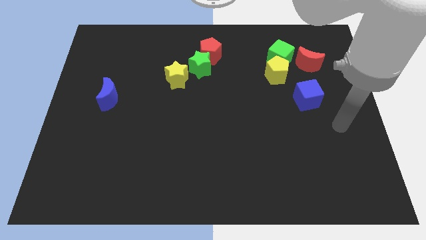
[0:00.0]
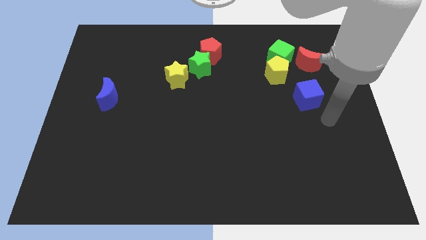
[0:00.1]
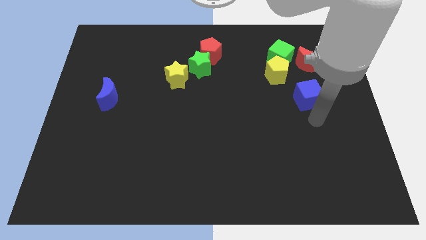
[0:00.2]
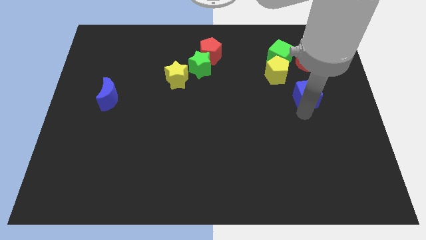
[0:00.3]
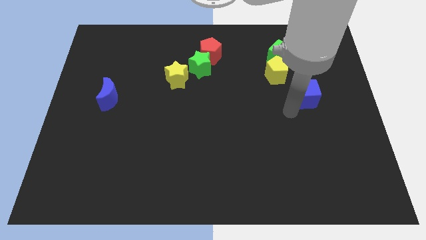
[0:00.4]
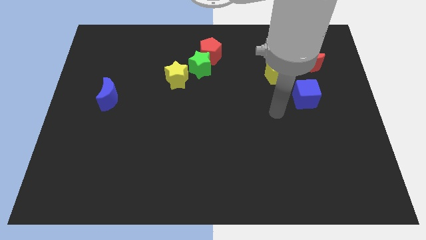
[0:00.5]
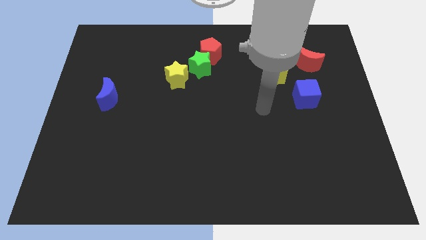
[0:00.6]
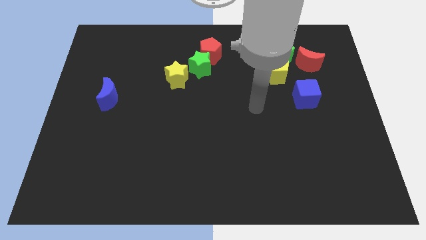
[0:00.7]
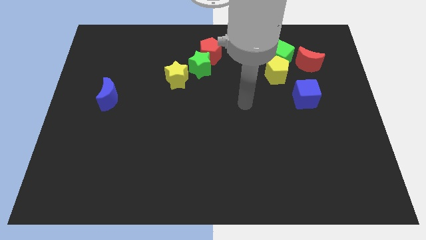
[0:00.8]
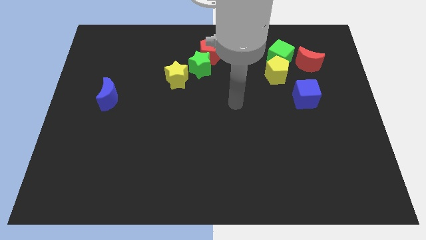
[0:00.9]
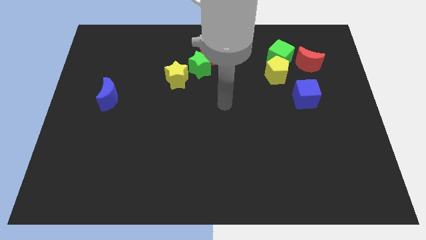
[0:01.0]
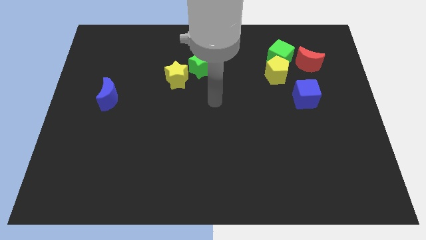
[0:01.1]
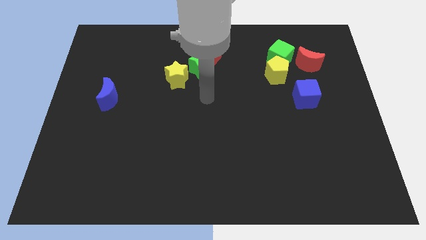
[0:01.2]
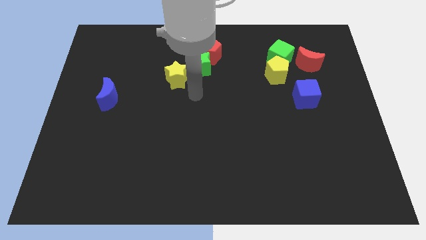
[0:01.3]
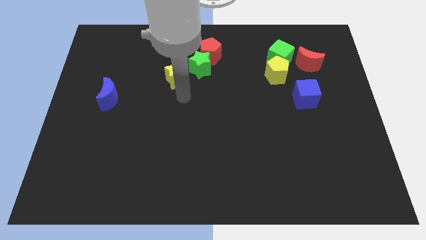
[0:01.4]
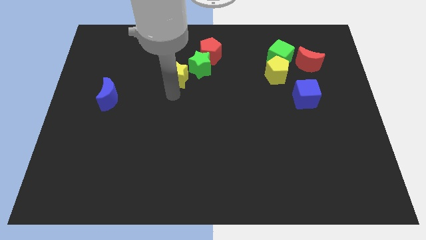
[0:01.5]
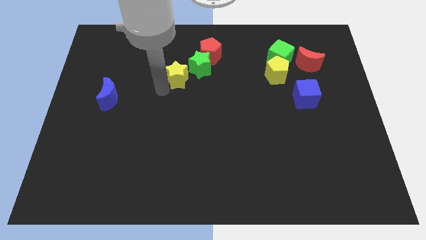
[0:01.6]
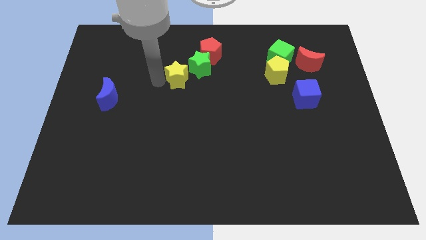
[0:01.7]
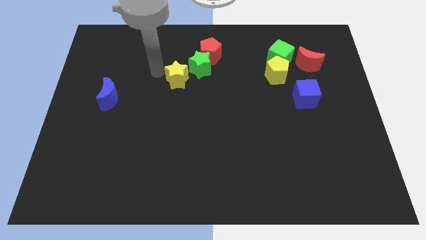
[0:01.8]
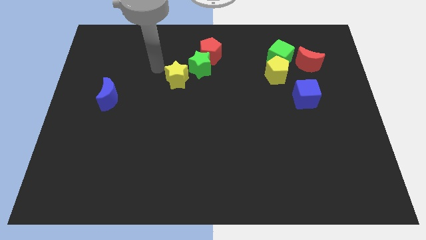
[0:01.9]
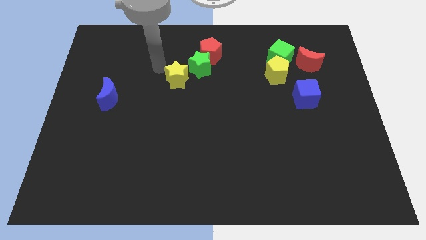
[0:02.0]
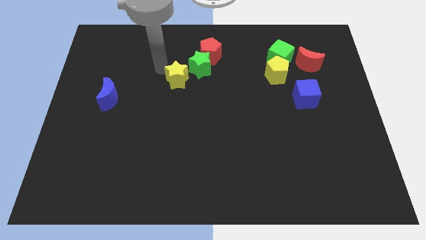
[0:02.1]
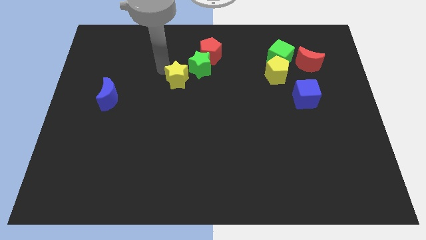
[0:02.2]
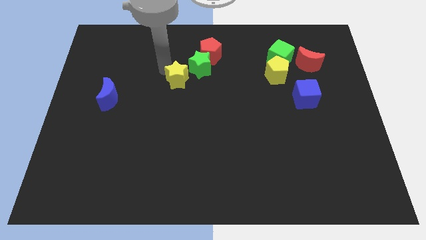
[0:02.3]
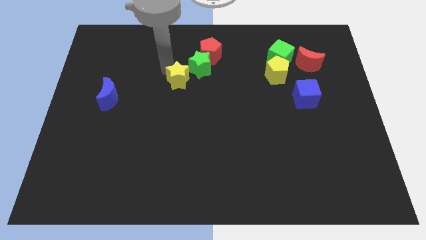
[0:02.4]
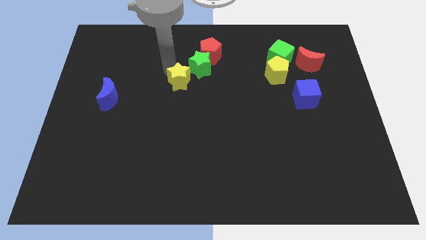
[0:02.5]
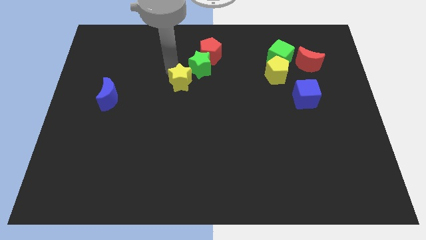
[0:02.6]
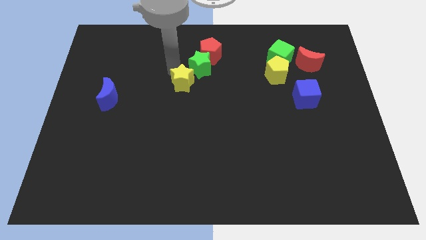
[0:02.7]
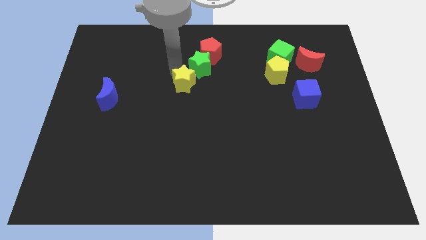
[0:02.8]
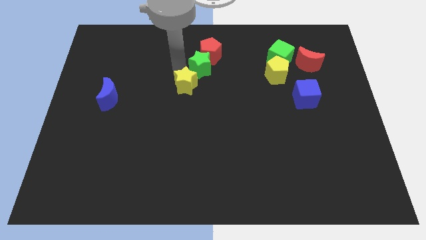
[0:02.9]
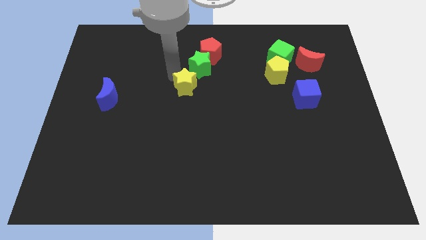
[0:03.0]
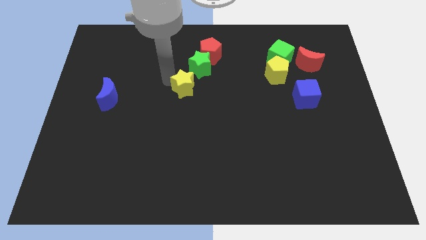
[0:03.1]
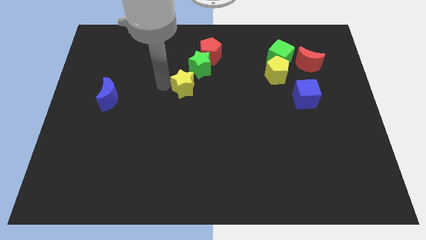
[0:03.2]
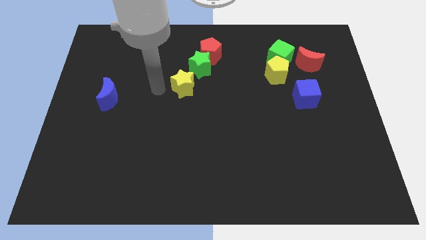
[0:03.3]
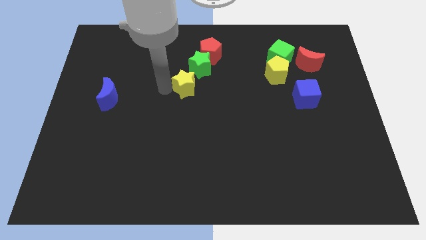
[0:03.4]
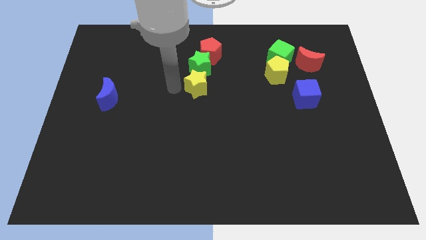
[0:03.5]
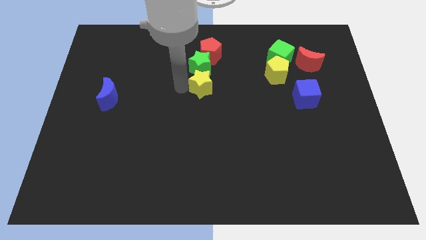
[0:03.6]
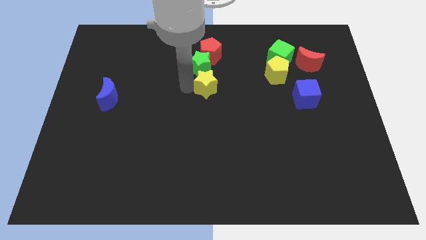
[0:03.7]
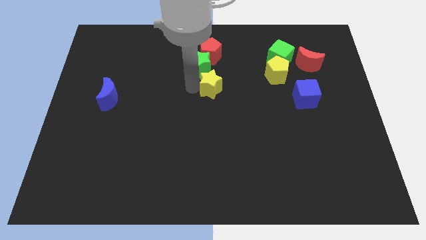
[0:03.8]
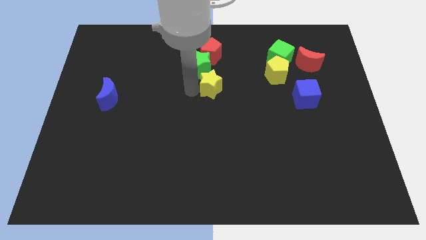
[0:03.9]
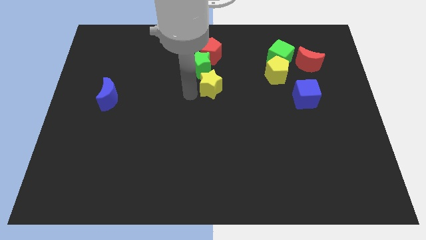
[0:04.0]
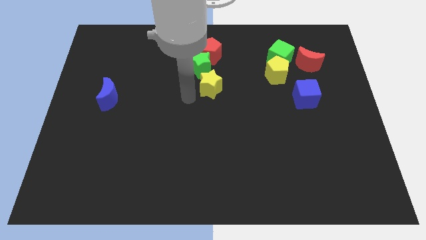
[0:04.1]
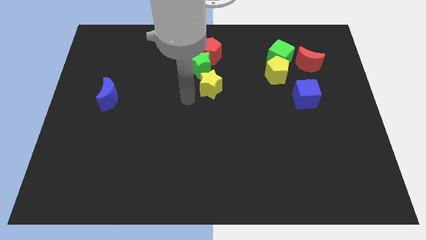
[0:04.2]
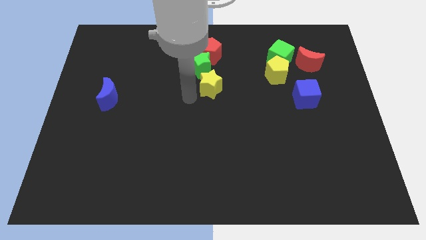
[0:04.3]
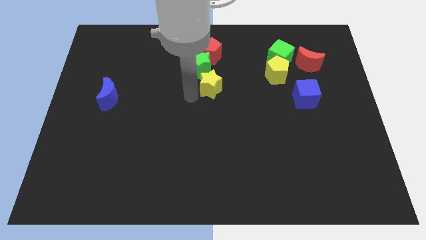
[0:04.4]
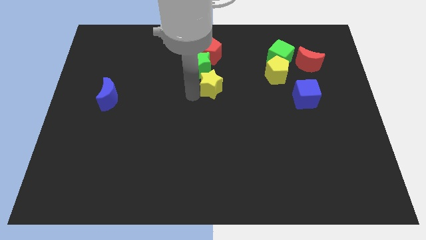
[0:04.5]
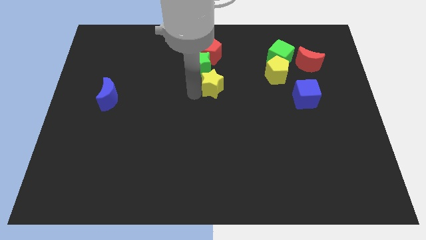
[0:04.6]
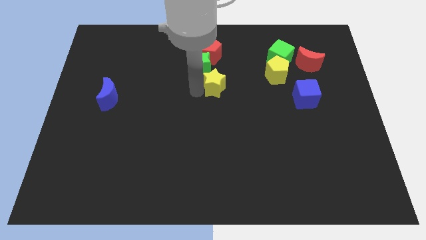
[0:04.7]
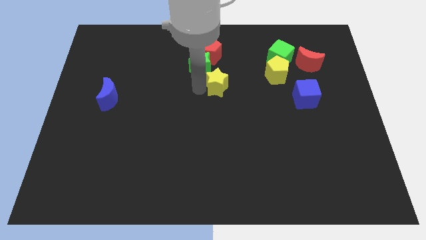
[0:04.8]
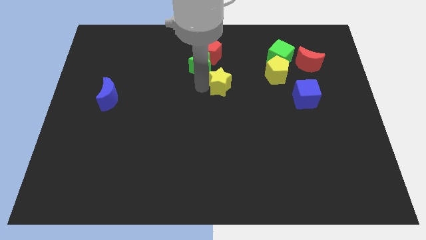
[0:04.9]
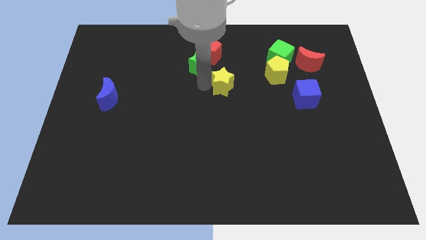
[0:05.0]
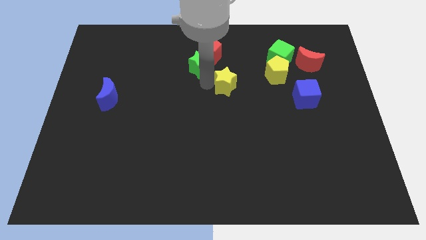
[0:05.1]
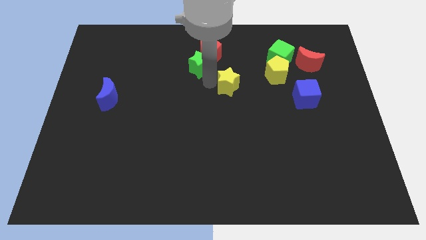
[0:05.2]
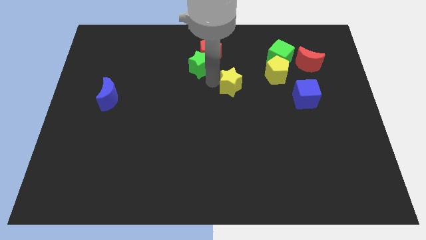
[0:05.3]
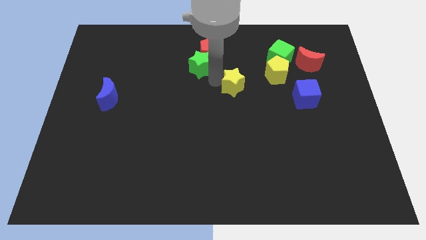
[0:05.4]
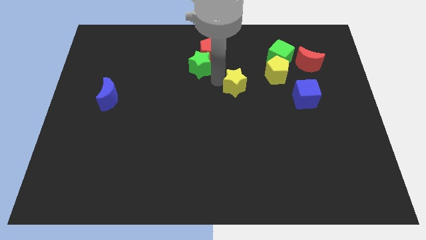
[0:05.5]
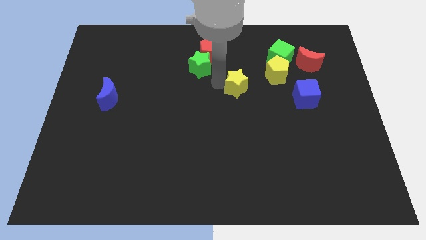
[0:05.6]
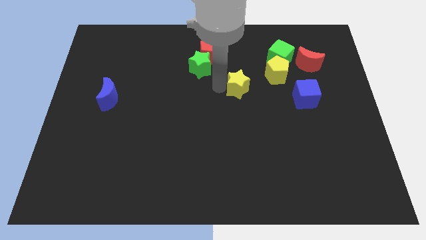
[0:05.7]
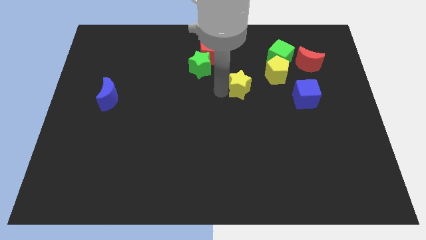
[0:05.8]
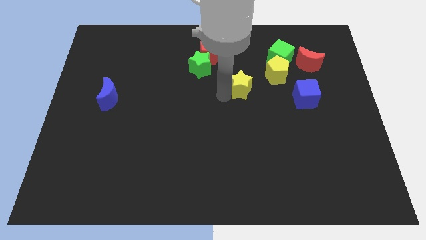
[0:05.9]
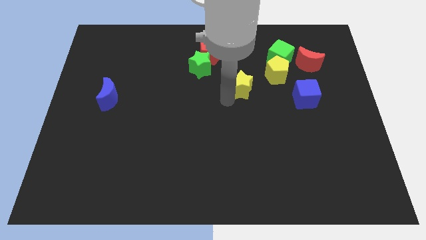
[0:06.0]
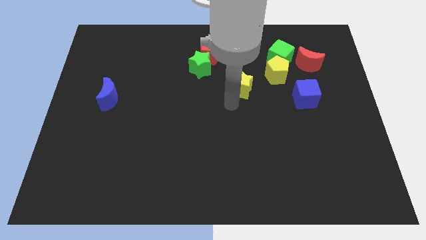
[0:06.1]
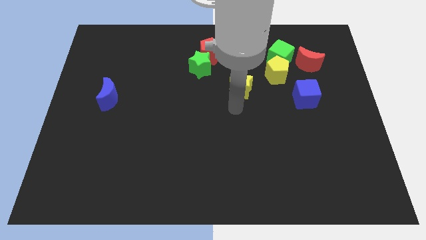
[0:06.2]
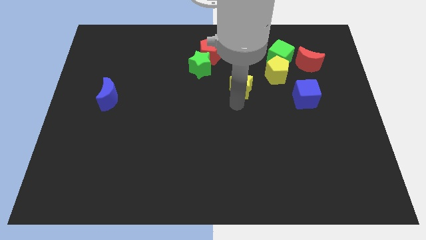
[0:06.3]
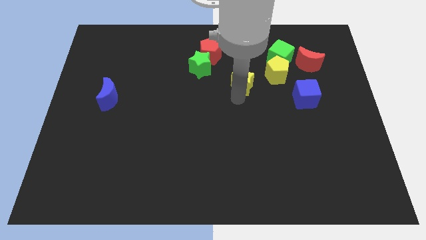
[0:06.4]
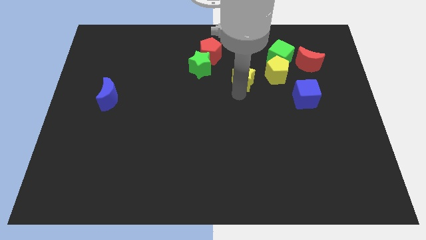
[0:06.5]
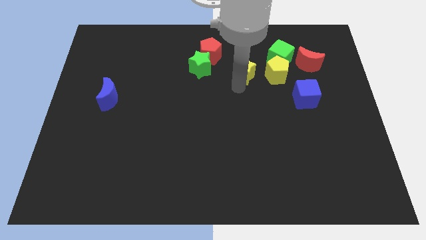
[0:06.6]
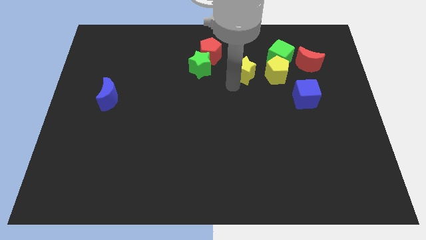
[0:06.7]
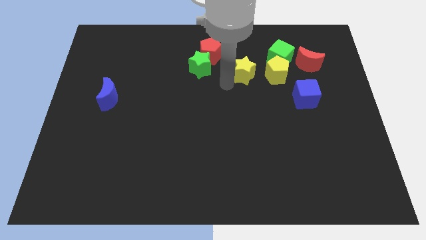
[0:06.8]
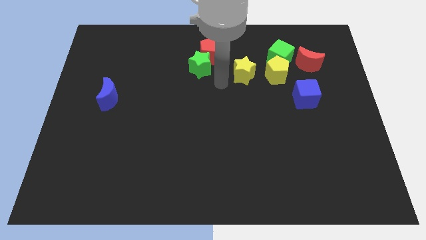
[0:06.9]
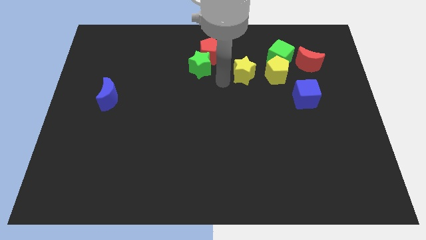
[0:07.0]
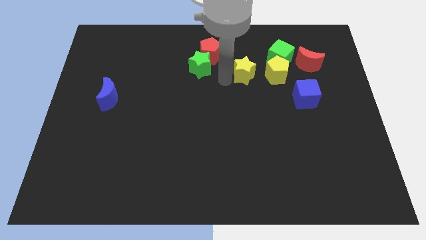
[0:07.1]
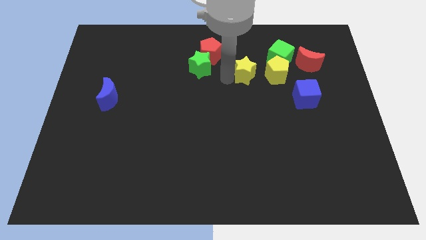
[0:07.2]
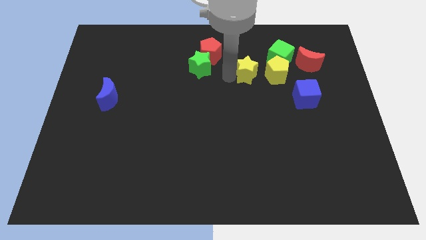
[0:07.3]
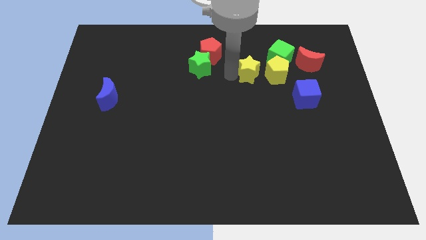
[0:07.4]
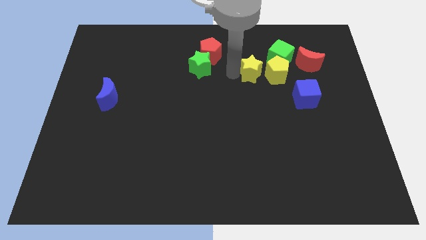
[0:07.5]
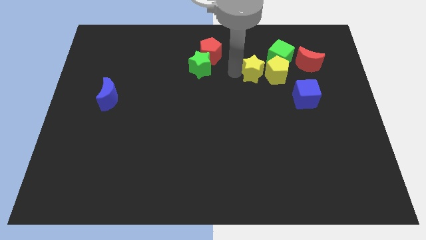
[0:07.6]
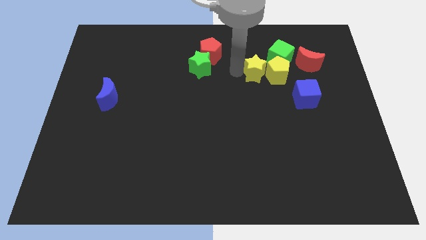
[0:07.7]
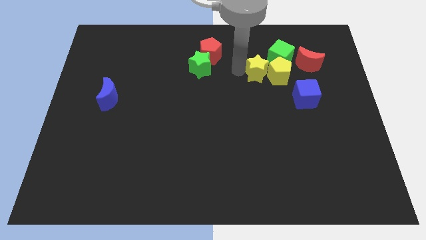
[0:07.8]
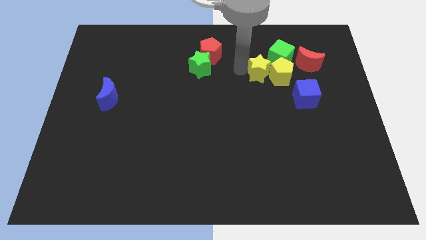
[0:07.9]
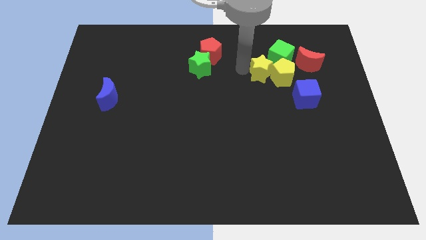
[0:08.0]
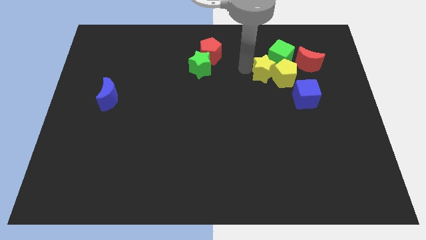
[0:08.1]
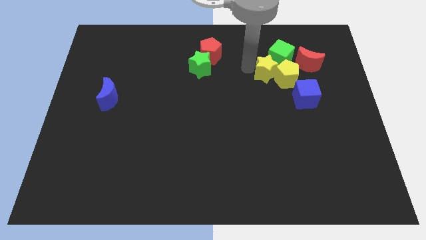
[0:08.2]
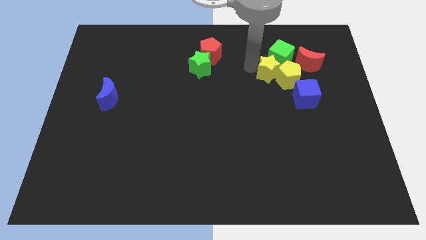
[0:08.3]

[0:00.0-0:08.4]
slide the yellow star to the green cube
